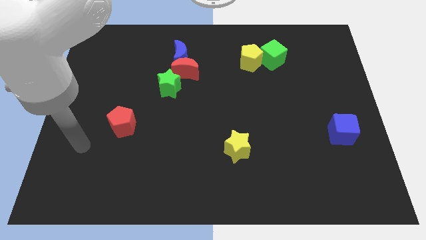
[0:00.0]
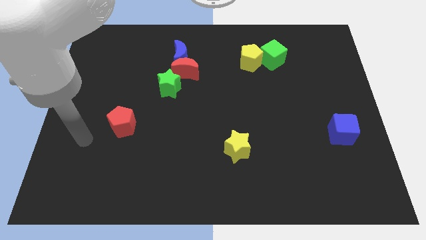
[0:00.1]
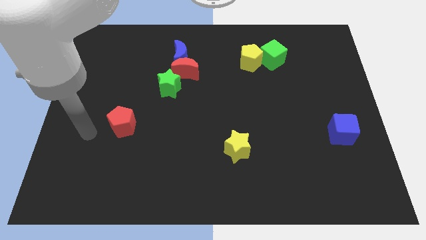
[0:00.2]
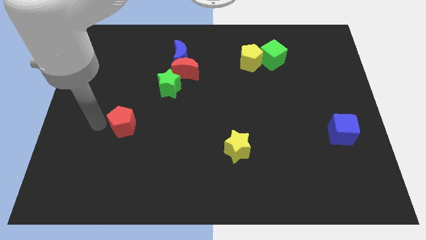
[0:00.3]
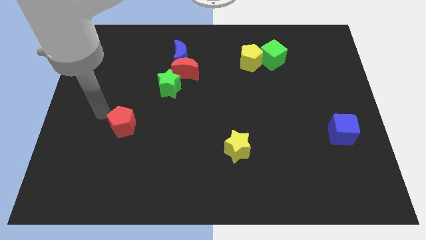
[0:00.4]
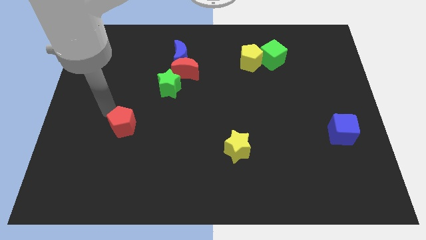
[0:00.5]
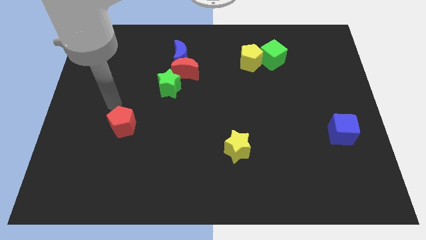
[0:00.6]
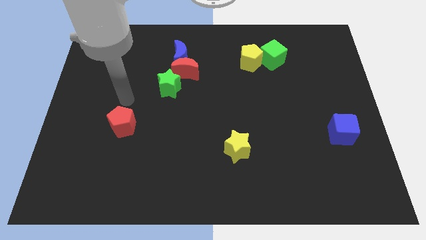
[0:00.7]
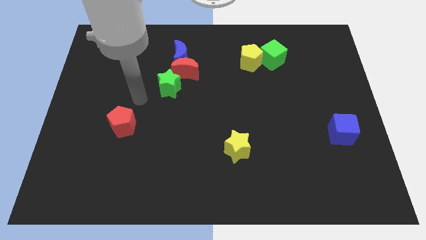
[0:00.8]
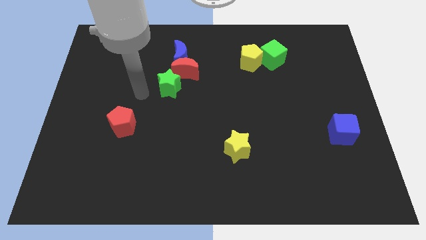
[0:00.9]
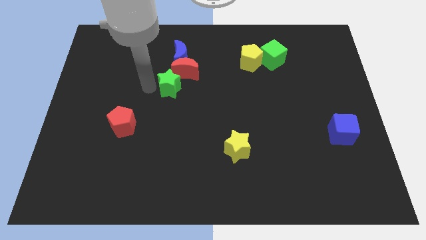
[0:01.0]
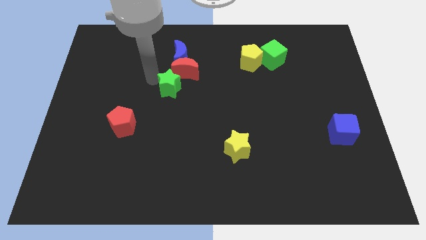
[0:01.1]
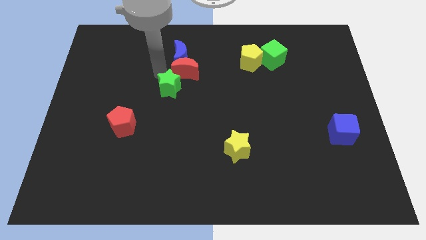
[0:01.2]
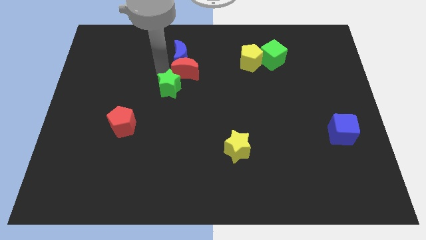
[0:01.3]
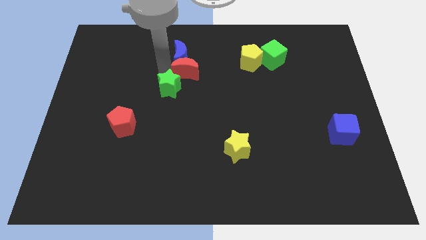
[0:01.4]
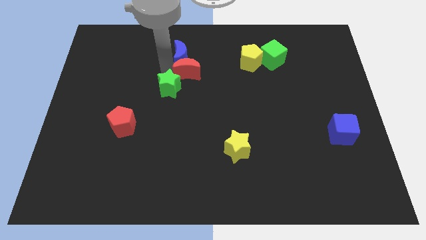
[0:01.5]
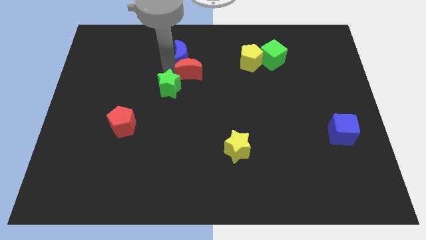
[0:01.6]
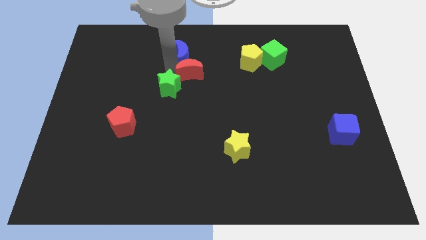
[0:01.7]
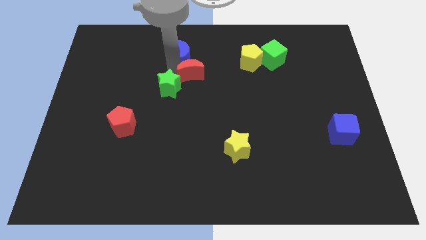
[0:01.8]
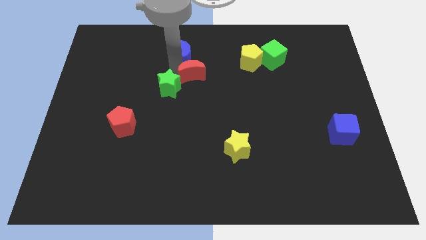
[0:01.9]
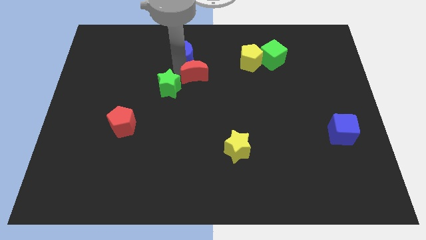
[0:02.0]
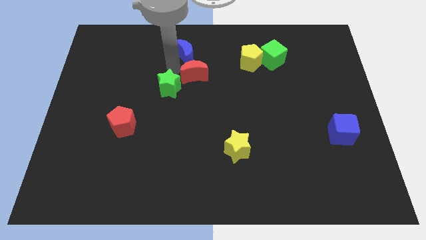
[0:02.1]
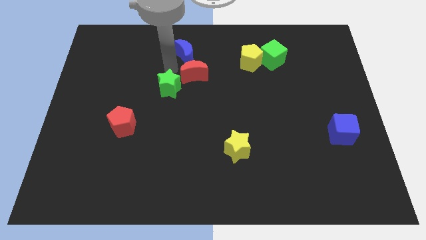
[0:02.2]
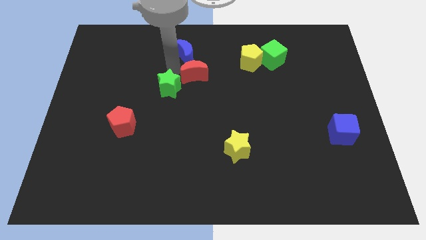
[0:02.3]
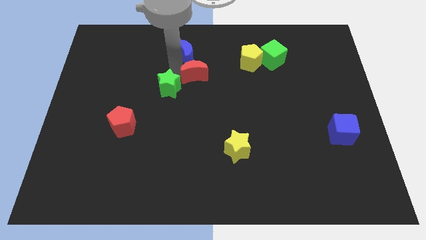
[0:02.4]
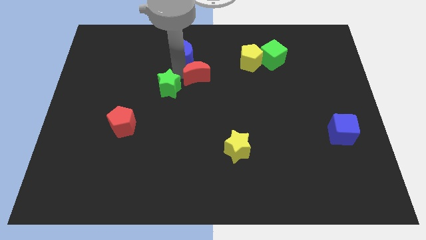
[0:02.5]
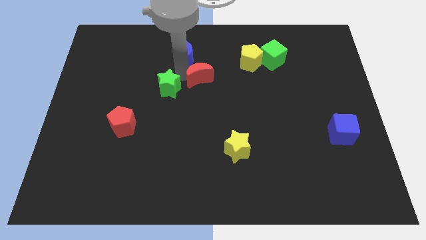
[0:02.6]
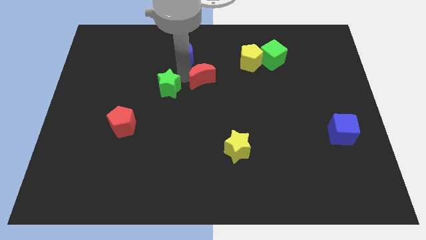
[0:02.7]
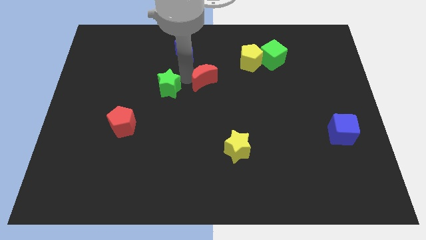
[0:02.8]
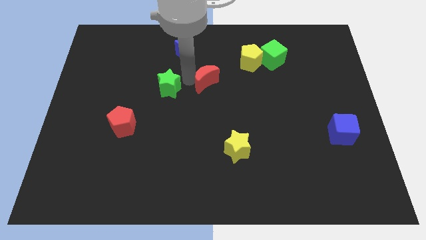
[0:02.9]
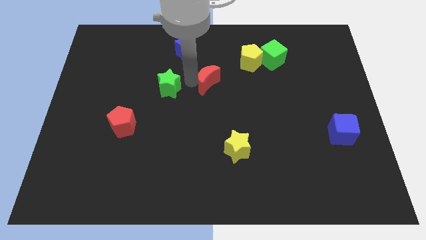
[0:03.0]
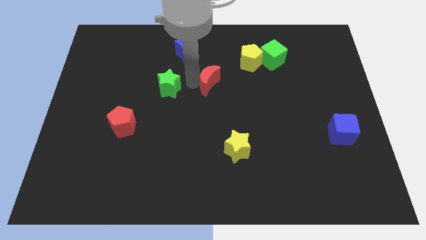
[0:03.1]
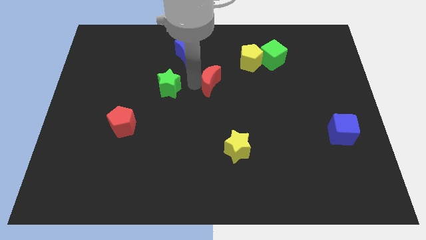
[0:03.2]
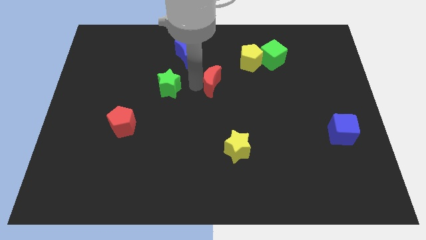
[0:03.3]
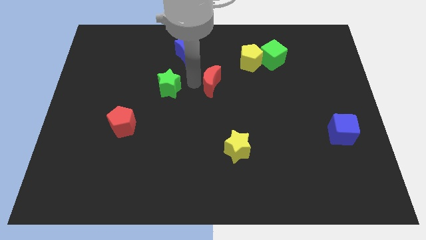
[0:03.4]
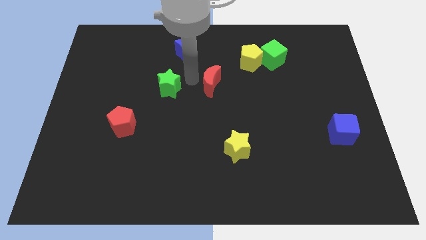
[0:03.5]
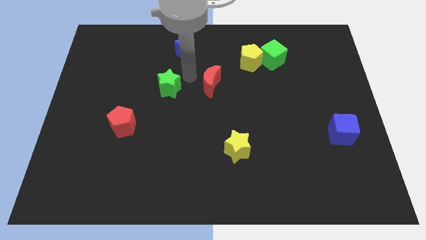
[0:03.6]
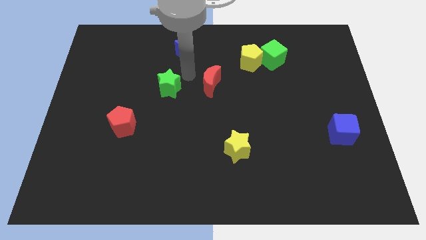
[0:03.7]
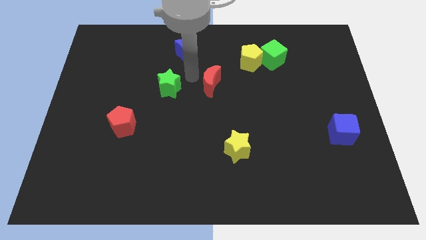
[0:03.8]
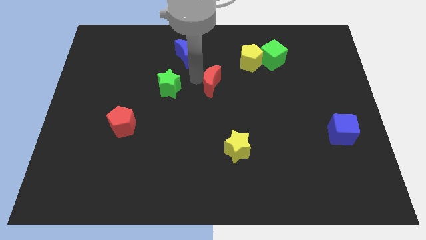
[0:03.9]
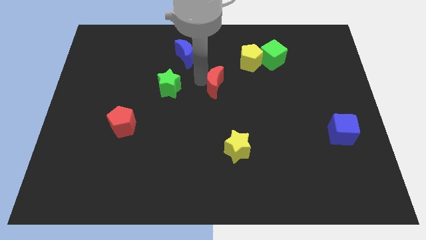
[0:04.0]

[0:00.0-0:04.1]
pull the red moon apart from the blue moon and green star

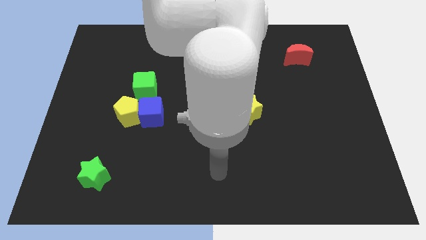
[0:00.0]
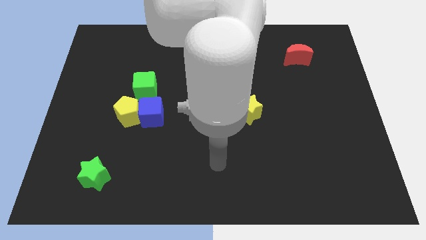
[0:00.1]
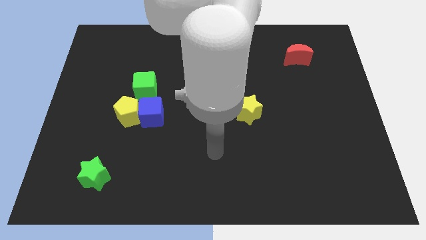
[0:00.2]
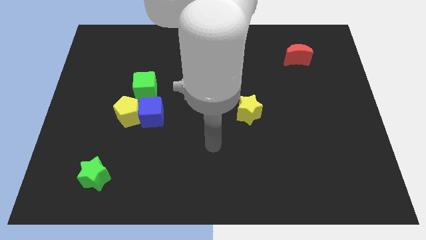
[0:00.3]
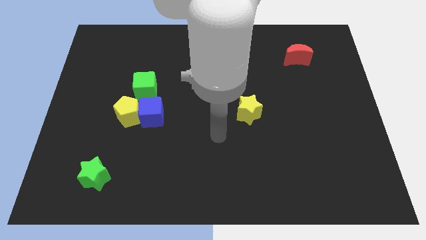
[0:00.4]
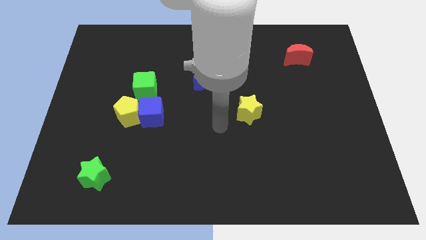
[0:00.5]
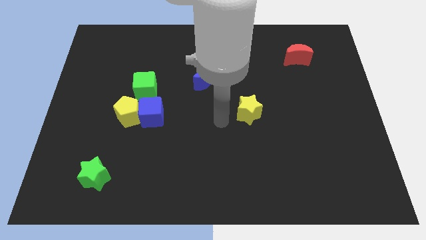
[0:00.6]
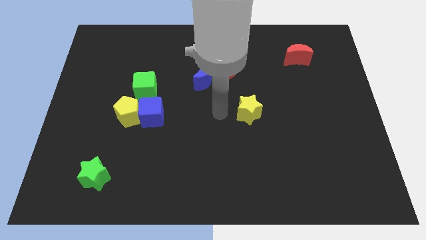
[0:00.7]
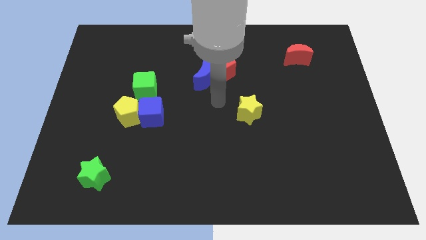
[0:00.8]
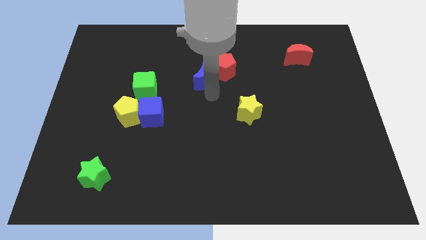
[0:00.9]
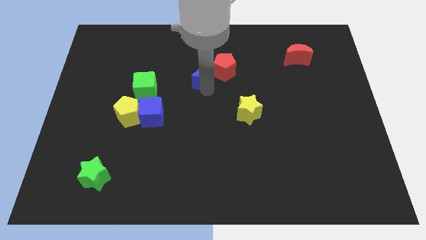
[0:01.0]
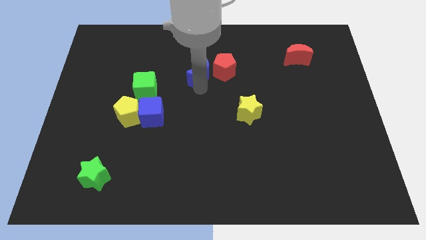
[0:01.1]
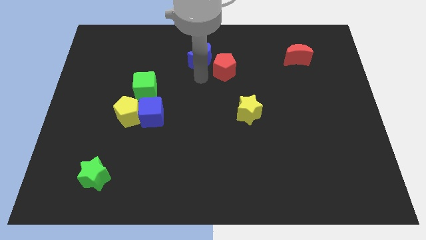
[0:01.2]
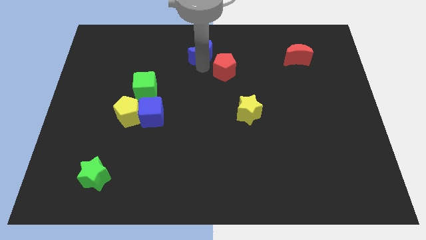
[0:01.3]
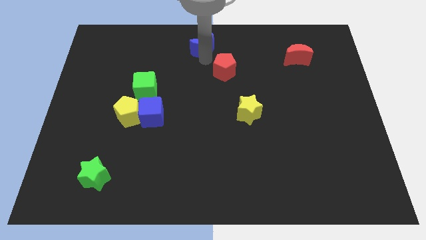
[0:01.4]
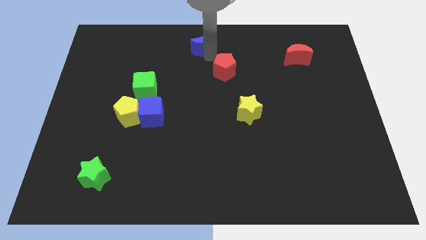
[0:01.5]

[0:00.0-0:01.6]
move the red pentagon away from the blue moon

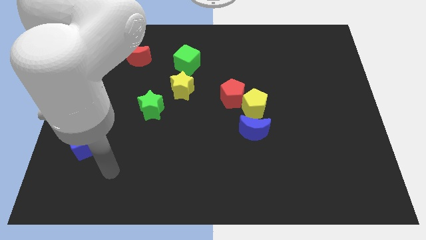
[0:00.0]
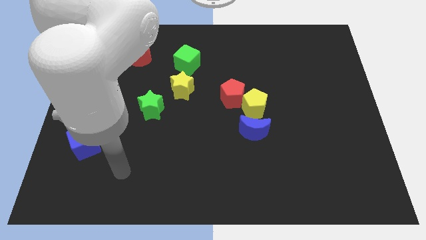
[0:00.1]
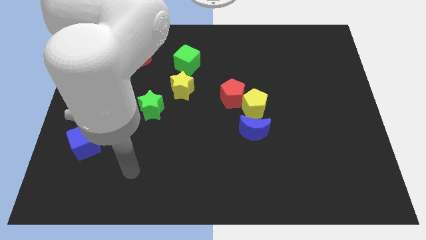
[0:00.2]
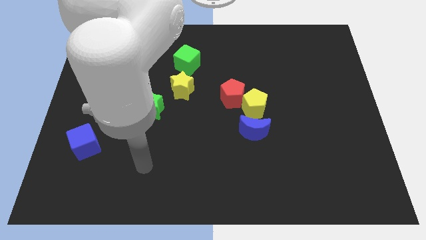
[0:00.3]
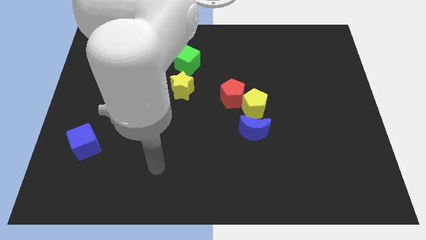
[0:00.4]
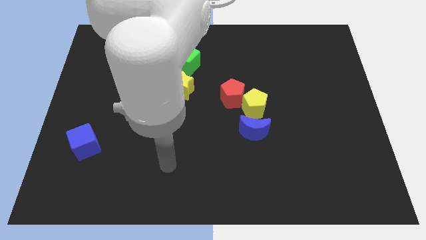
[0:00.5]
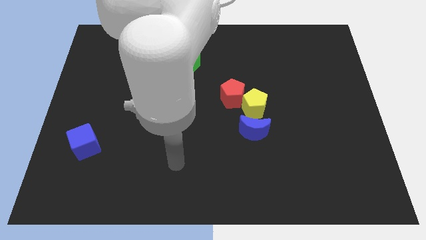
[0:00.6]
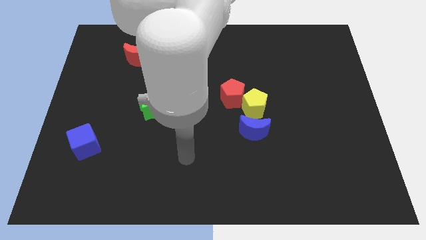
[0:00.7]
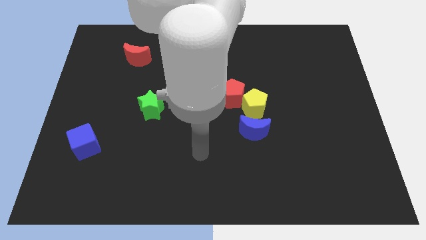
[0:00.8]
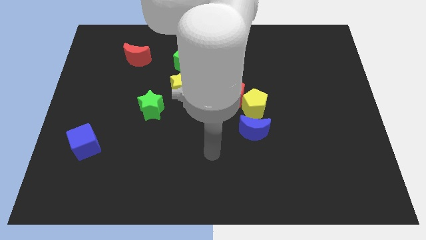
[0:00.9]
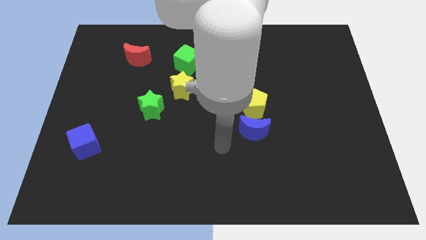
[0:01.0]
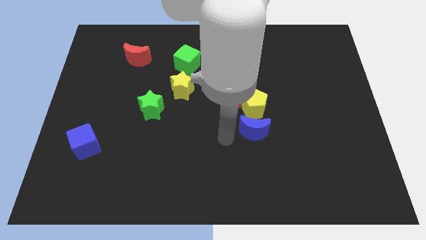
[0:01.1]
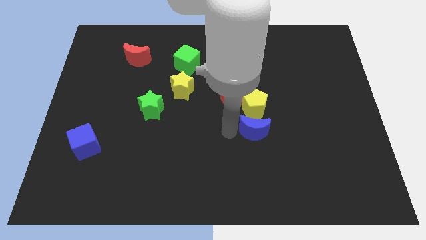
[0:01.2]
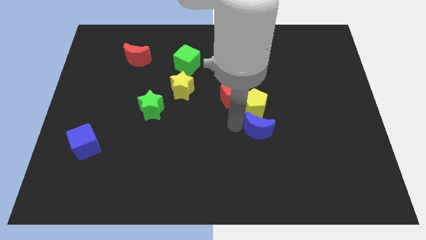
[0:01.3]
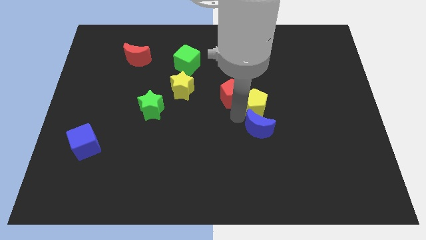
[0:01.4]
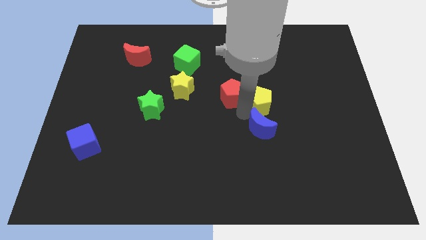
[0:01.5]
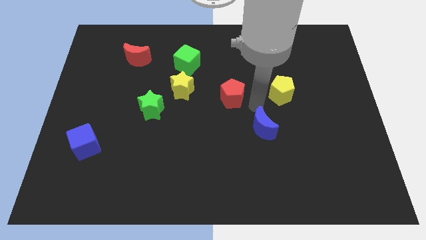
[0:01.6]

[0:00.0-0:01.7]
separate the red pentagon from the yellow pentagon

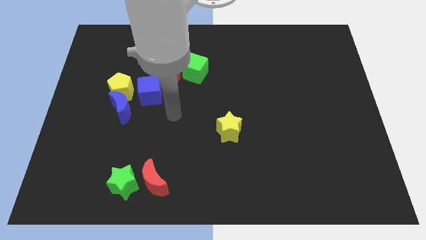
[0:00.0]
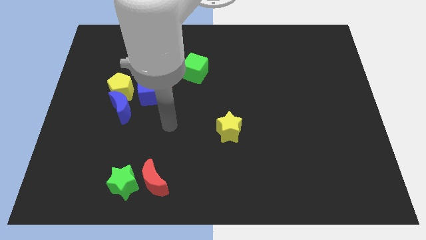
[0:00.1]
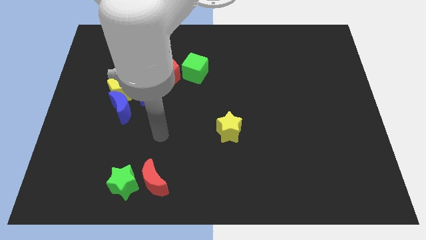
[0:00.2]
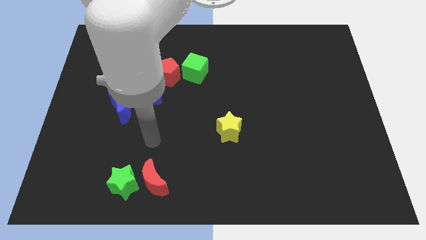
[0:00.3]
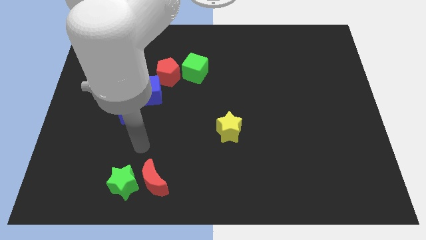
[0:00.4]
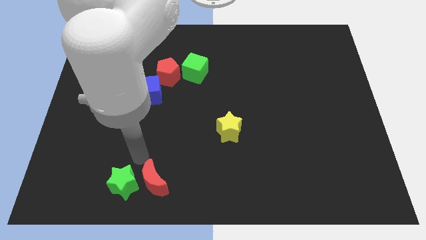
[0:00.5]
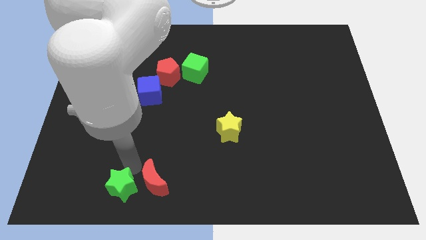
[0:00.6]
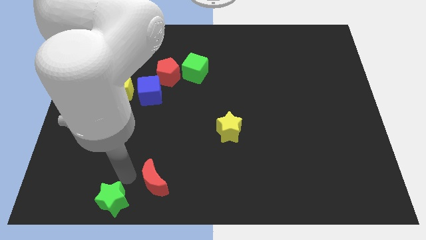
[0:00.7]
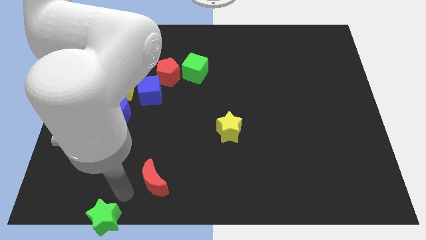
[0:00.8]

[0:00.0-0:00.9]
separate the red moon from the green star

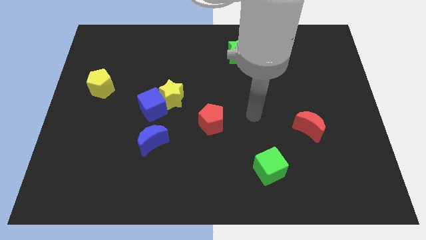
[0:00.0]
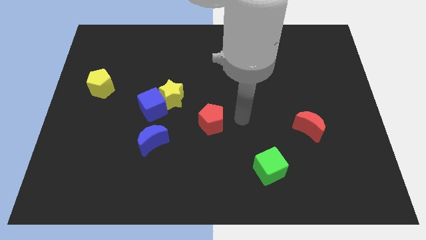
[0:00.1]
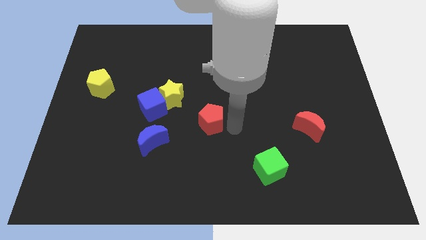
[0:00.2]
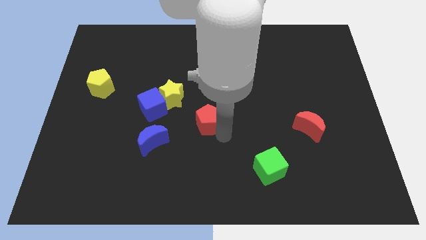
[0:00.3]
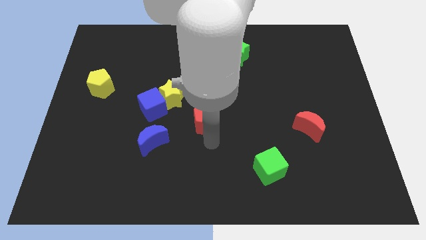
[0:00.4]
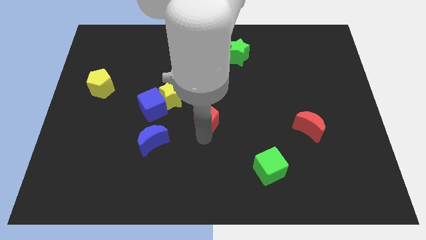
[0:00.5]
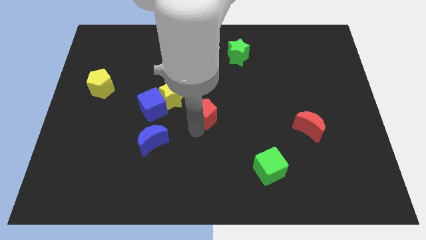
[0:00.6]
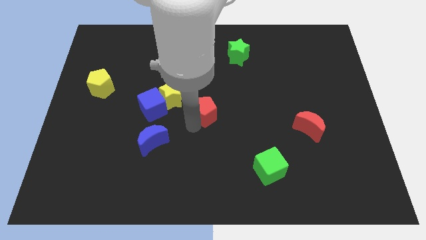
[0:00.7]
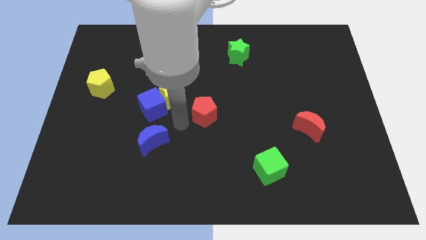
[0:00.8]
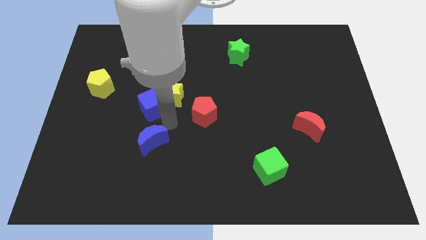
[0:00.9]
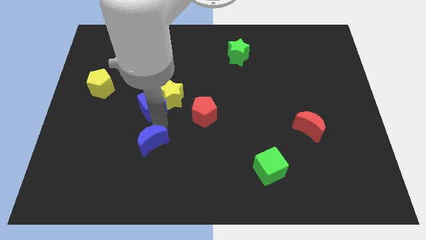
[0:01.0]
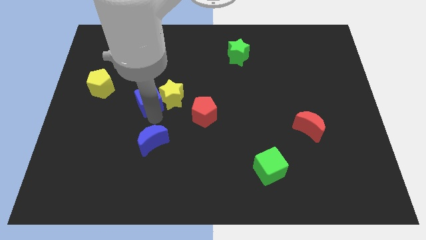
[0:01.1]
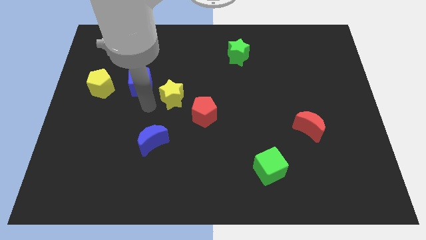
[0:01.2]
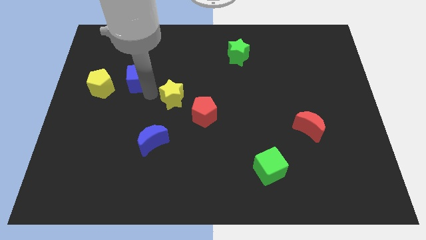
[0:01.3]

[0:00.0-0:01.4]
separate the yellow star from the blue cube
